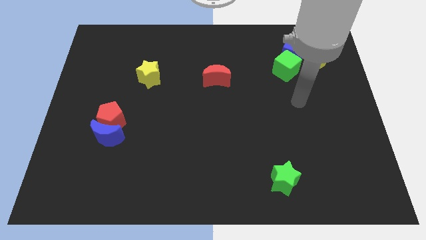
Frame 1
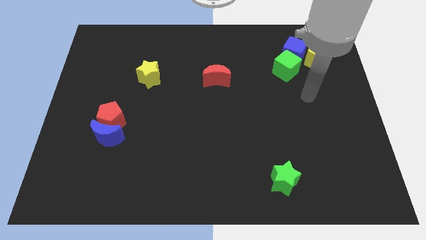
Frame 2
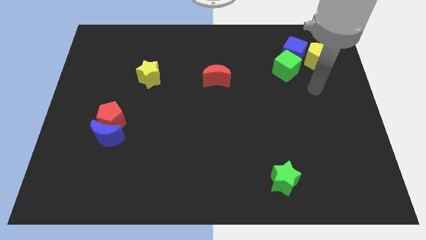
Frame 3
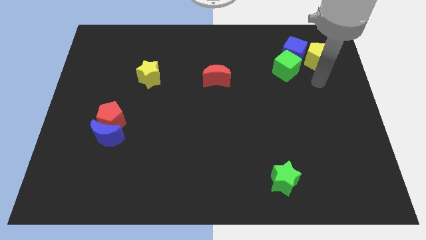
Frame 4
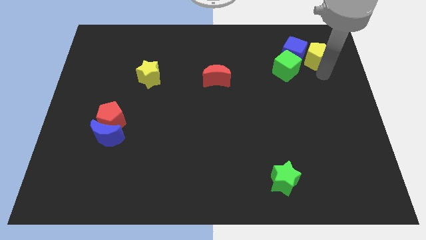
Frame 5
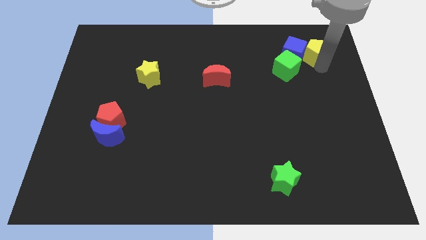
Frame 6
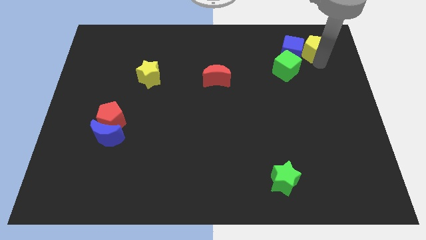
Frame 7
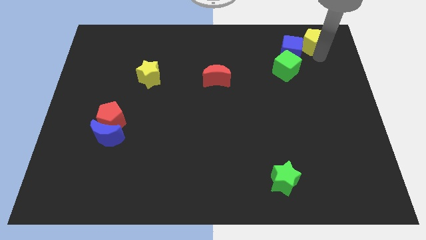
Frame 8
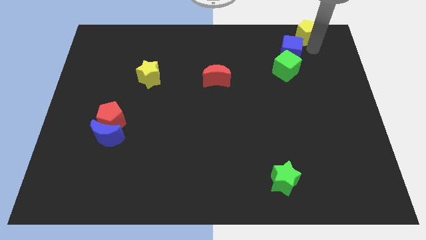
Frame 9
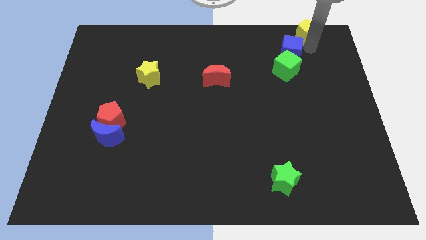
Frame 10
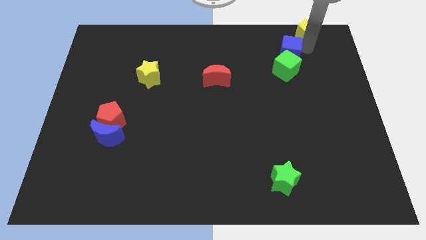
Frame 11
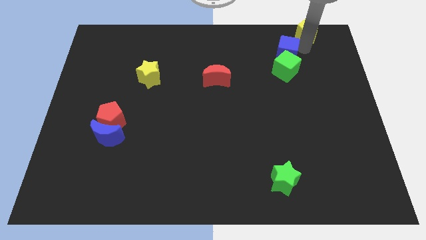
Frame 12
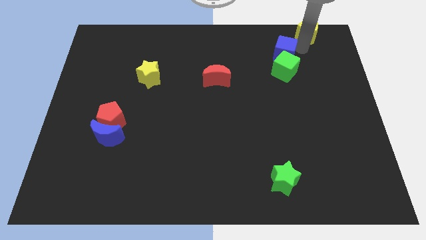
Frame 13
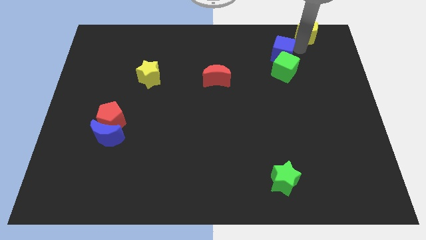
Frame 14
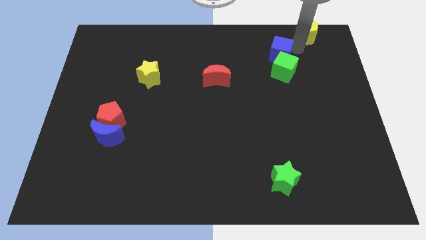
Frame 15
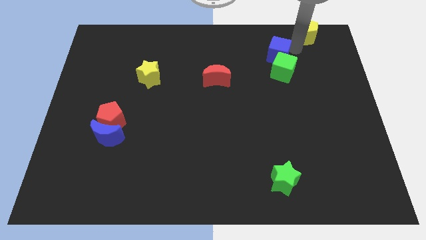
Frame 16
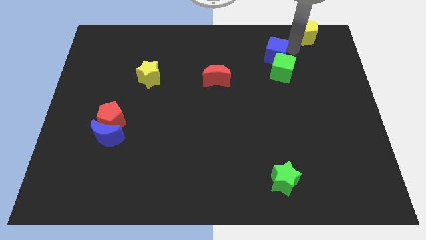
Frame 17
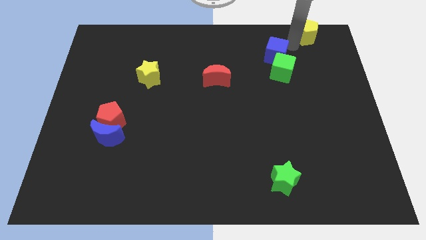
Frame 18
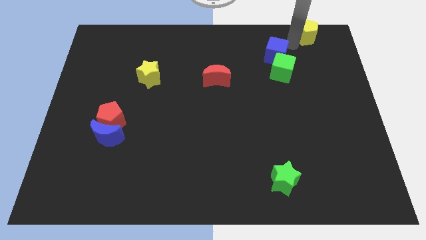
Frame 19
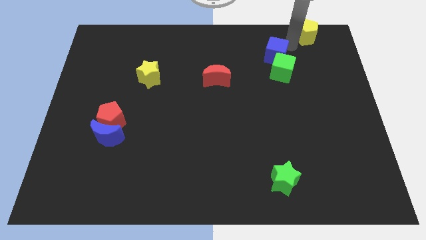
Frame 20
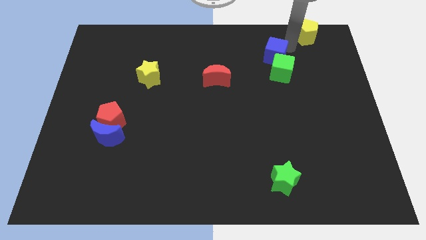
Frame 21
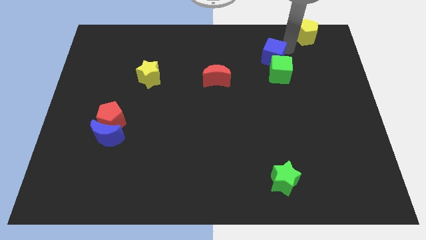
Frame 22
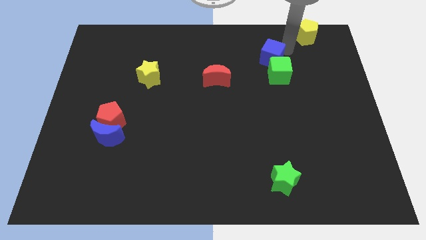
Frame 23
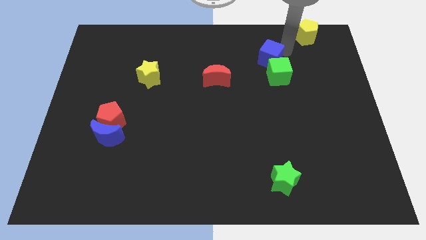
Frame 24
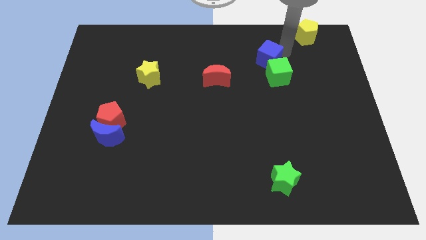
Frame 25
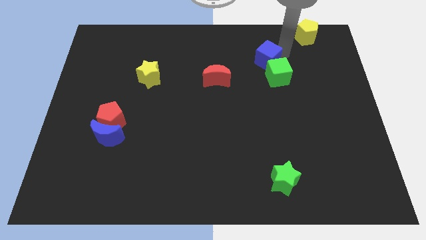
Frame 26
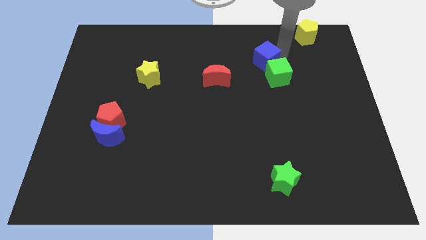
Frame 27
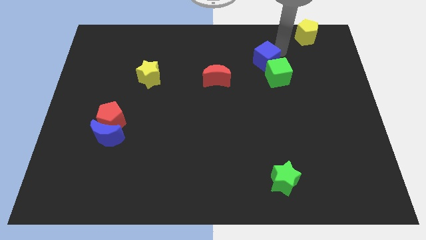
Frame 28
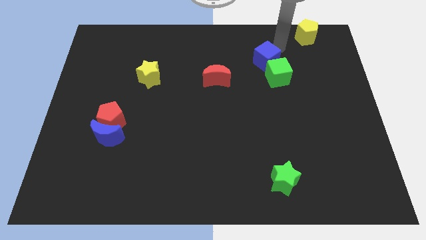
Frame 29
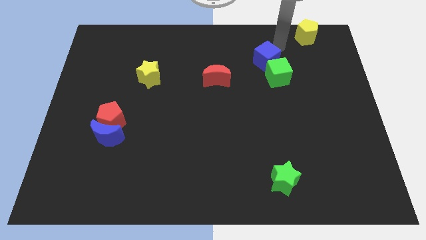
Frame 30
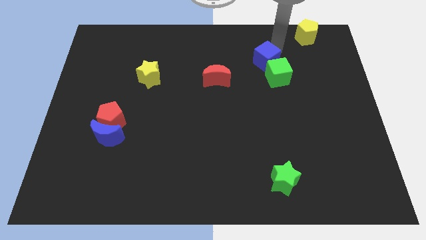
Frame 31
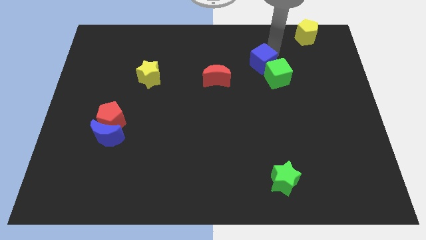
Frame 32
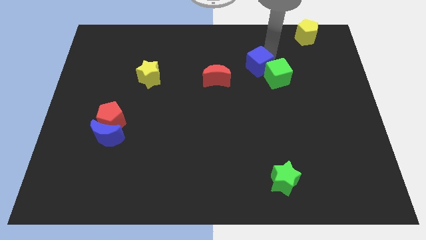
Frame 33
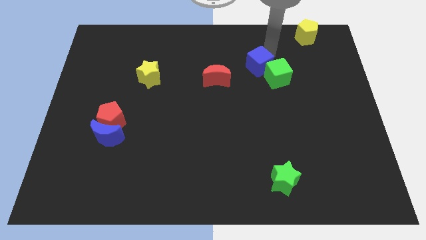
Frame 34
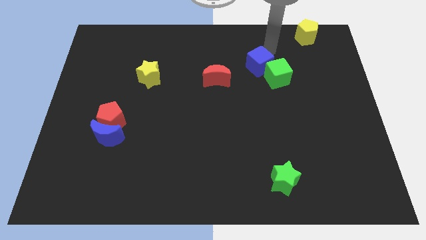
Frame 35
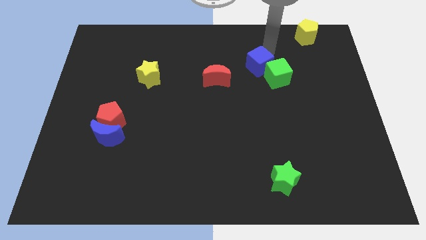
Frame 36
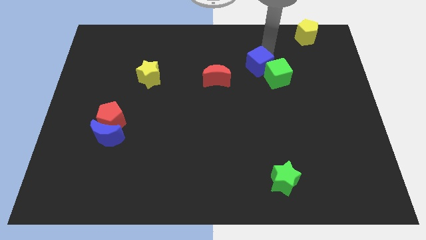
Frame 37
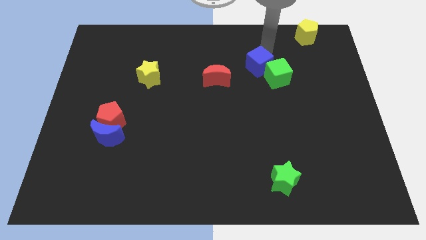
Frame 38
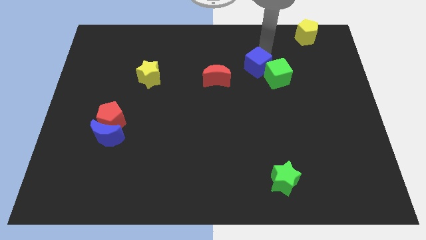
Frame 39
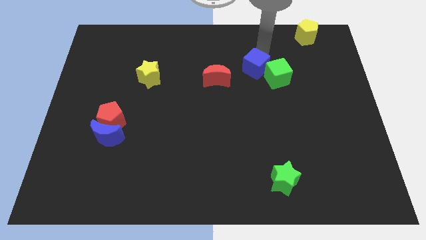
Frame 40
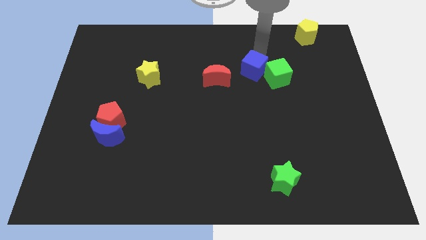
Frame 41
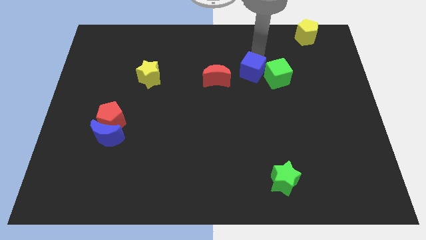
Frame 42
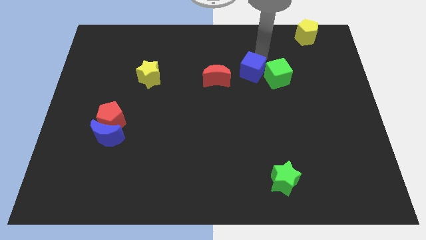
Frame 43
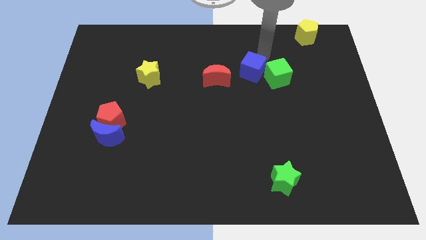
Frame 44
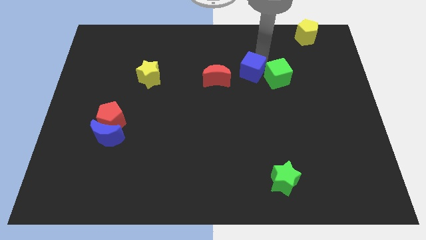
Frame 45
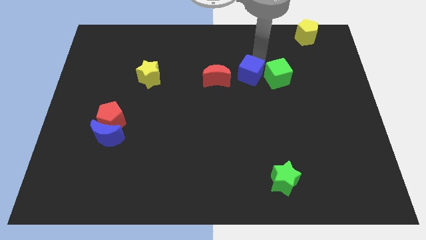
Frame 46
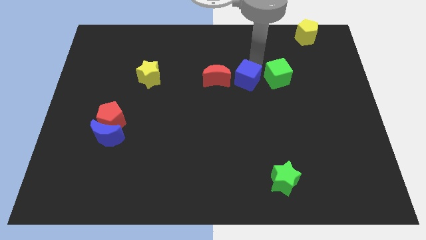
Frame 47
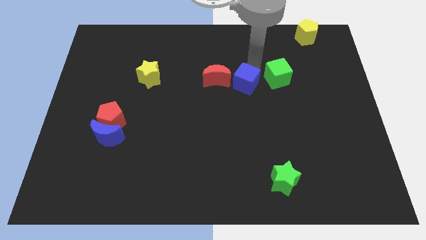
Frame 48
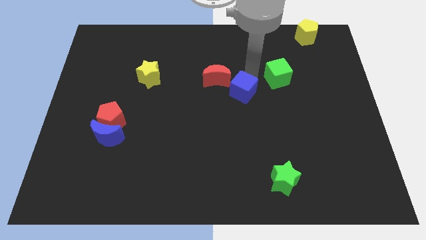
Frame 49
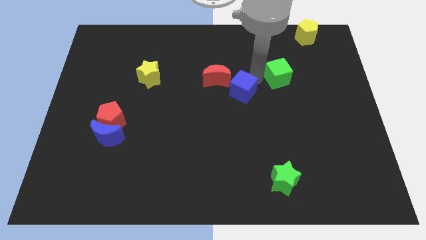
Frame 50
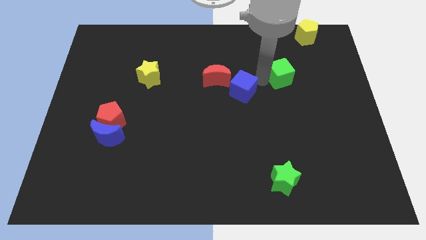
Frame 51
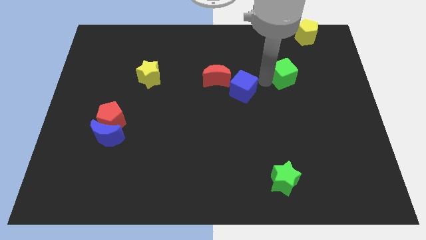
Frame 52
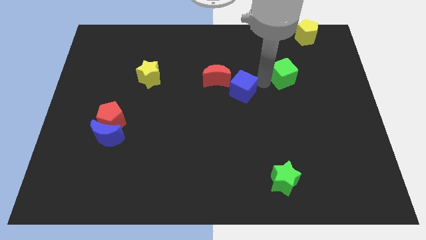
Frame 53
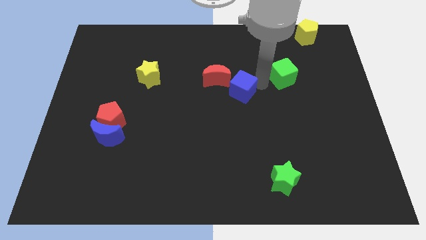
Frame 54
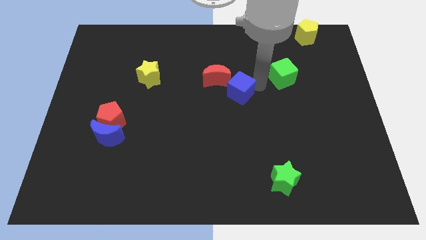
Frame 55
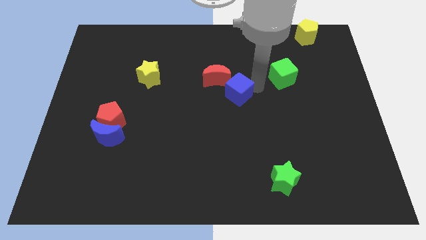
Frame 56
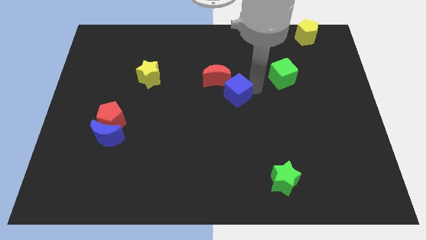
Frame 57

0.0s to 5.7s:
push the blue cube below the red moon

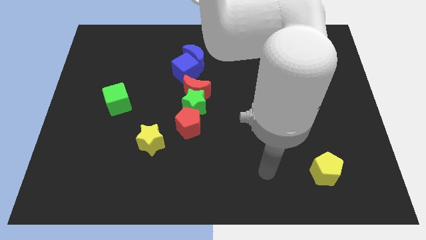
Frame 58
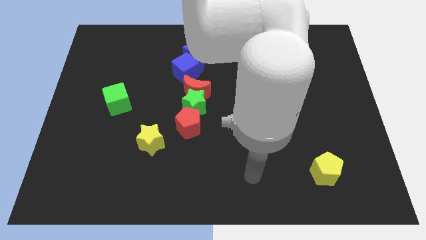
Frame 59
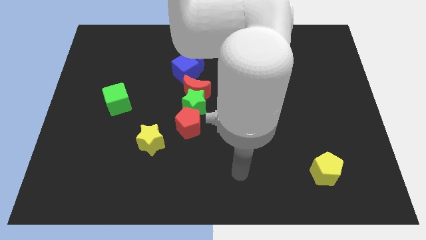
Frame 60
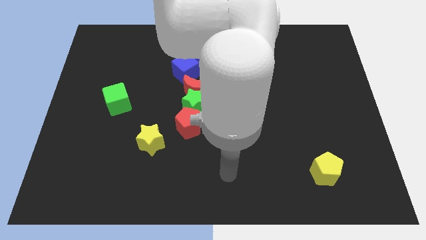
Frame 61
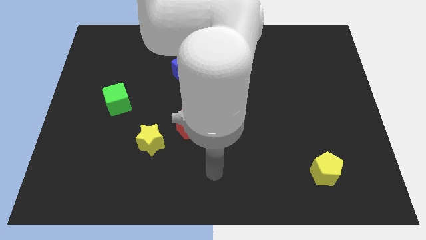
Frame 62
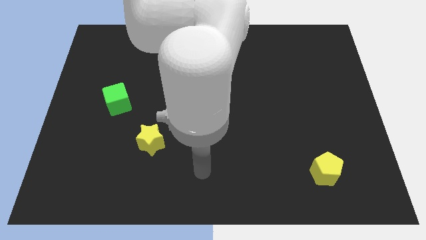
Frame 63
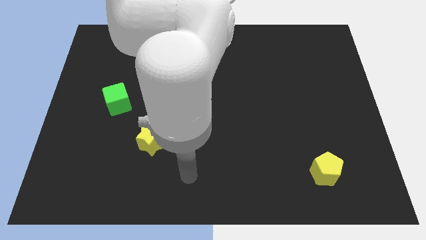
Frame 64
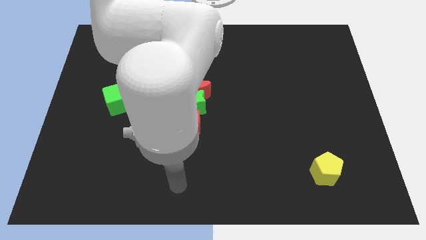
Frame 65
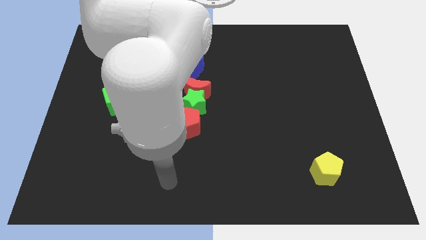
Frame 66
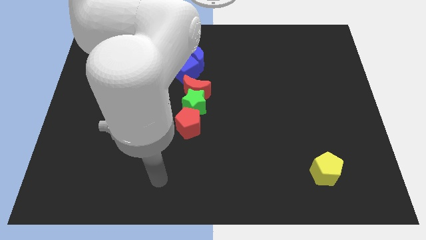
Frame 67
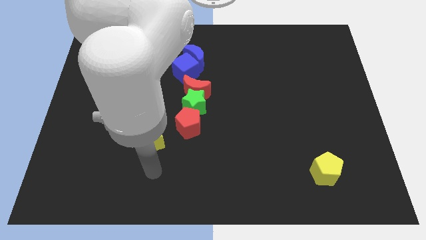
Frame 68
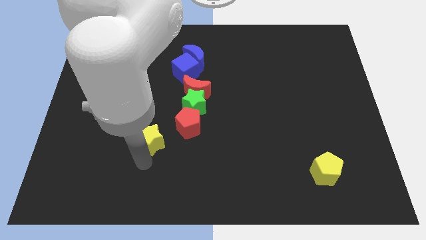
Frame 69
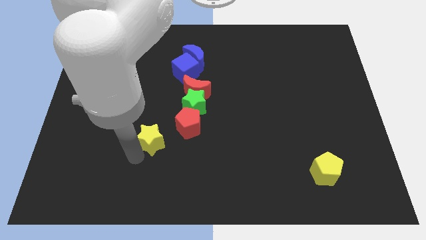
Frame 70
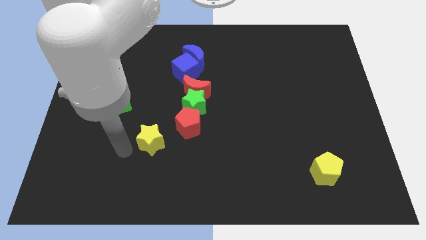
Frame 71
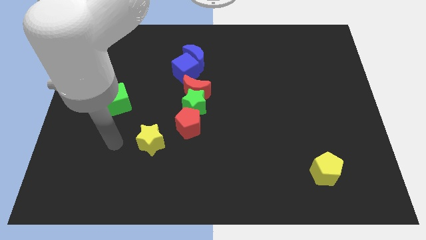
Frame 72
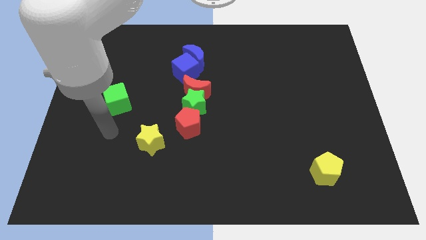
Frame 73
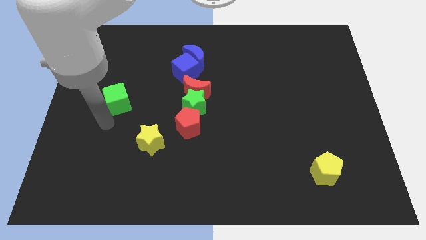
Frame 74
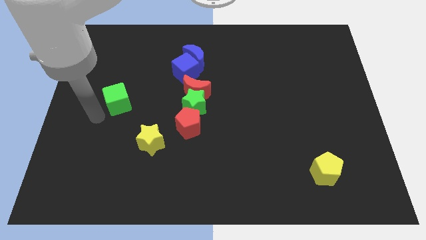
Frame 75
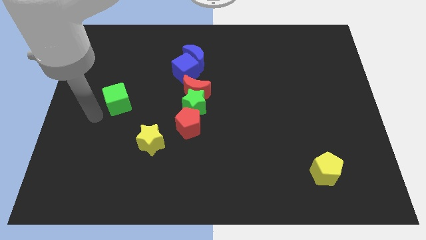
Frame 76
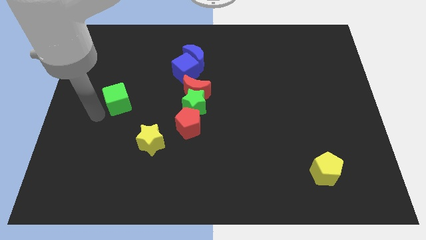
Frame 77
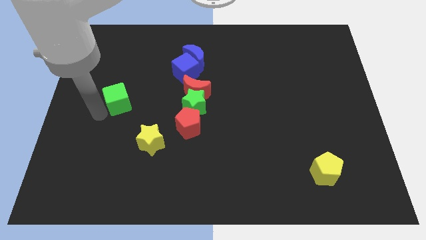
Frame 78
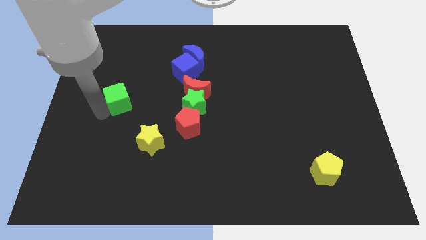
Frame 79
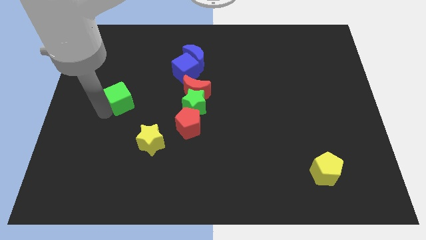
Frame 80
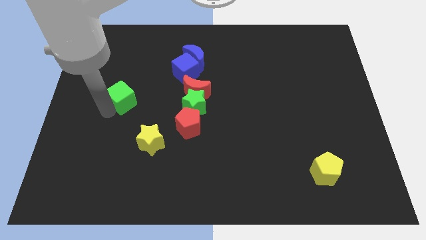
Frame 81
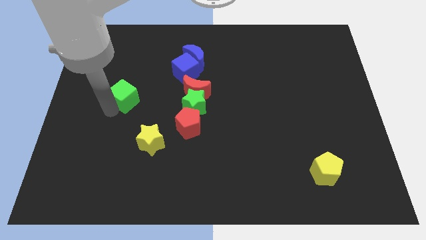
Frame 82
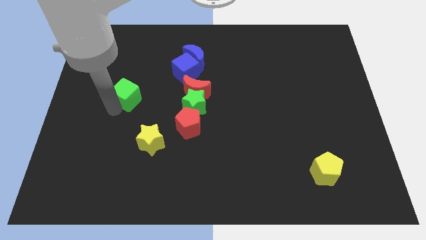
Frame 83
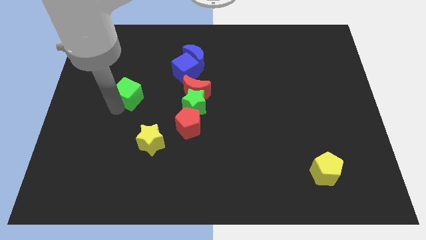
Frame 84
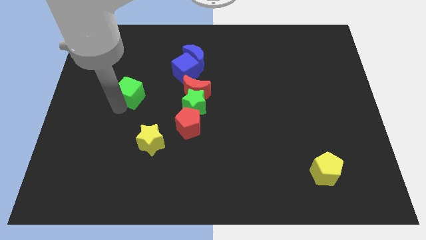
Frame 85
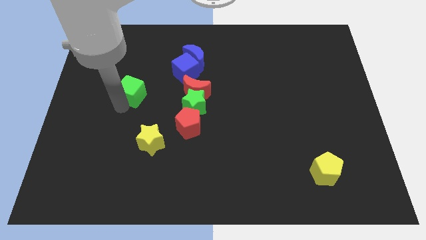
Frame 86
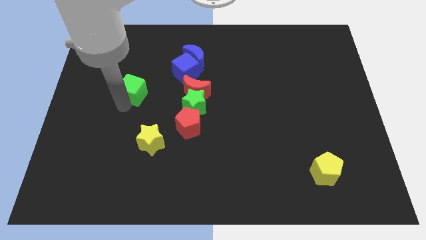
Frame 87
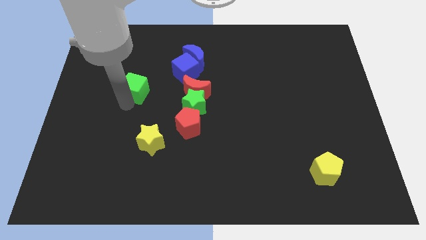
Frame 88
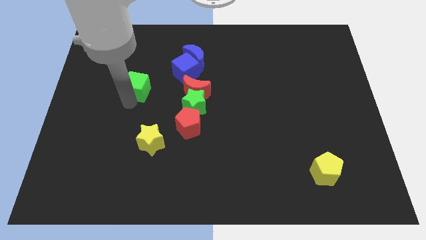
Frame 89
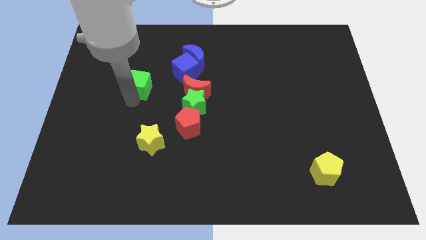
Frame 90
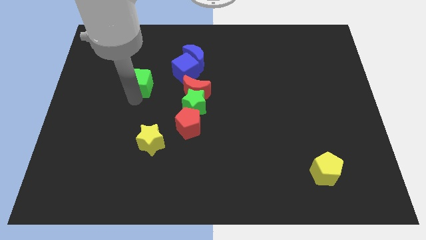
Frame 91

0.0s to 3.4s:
push the green cube to the left side of the blue cube
